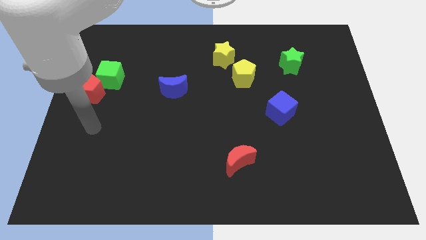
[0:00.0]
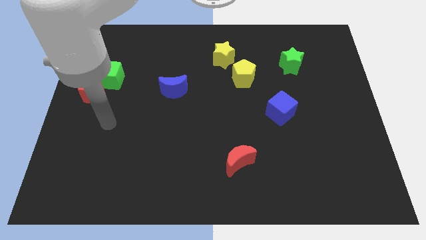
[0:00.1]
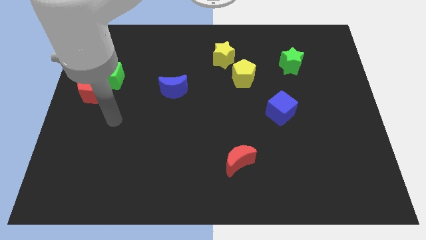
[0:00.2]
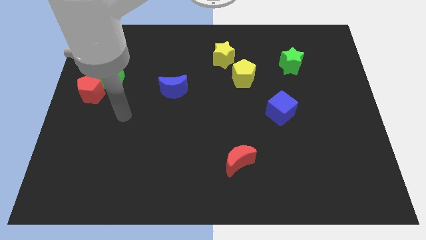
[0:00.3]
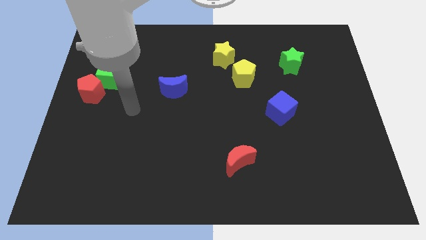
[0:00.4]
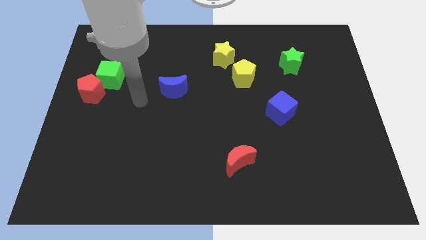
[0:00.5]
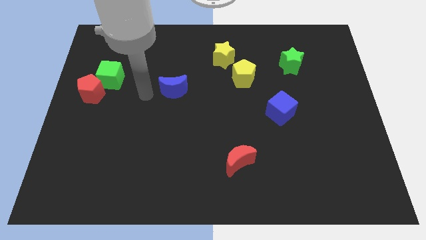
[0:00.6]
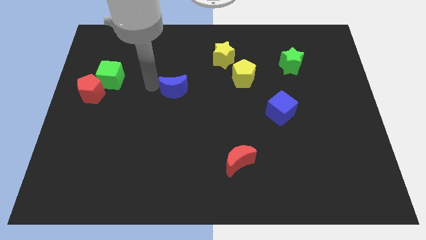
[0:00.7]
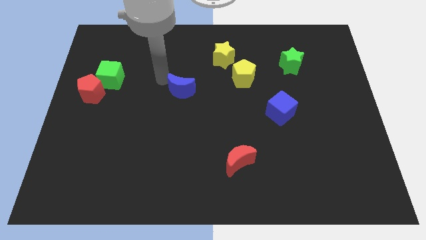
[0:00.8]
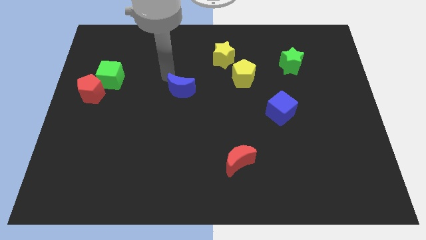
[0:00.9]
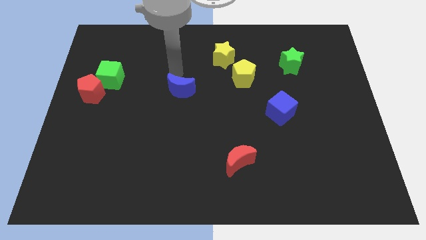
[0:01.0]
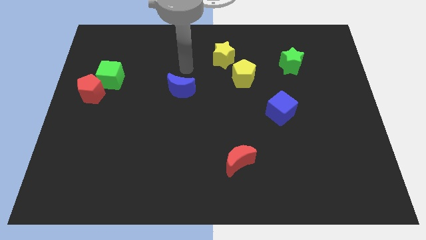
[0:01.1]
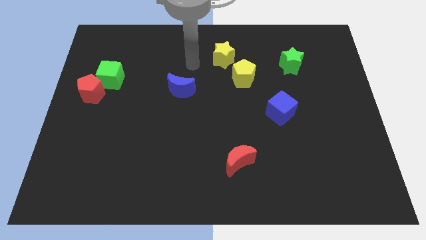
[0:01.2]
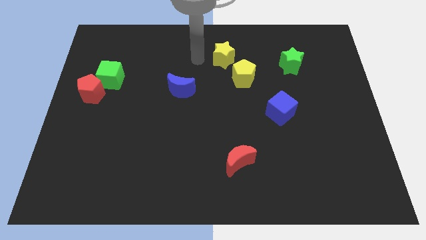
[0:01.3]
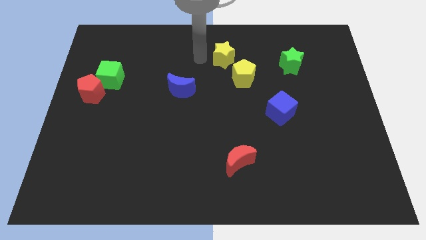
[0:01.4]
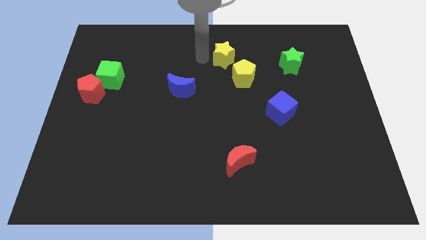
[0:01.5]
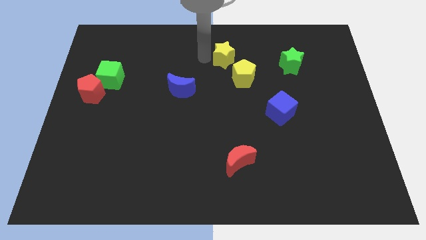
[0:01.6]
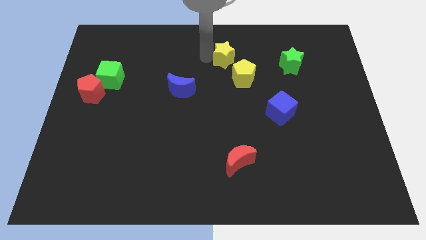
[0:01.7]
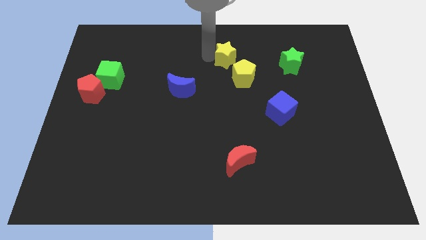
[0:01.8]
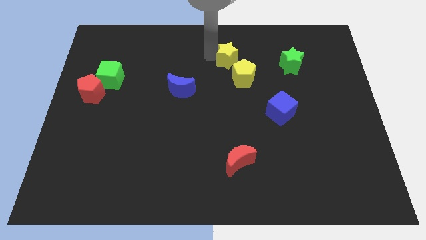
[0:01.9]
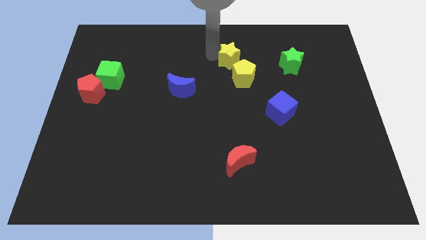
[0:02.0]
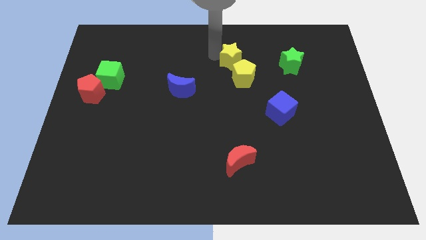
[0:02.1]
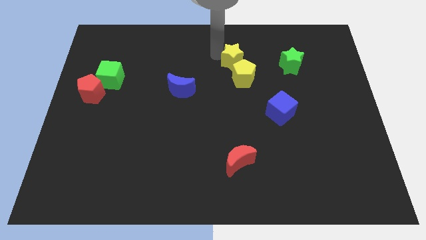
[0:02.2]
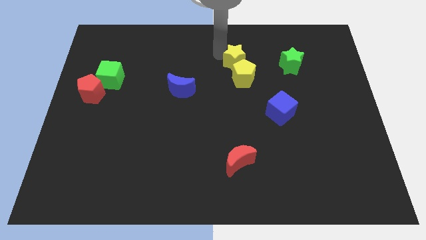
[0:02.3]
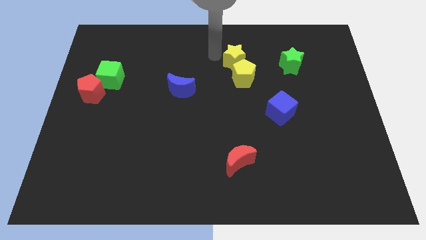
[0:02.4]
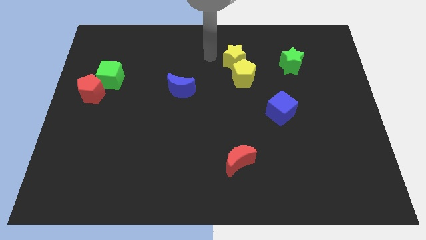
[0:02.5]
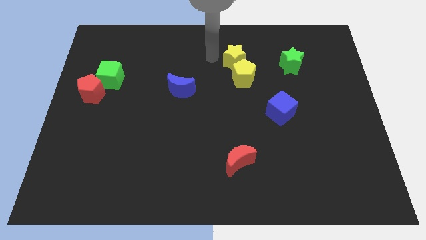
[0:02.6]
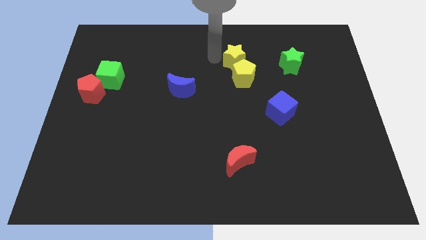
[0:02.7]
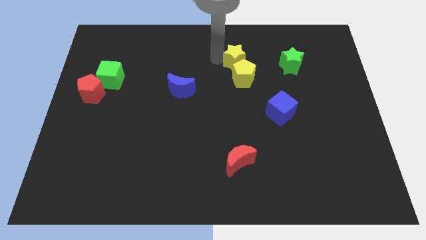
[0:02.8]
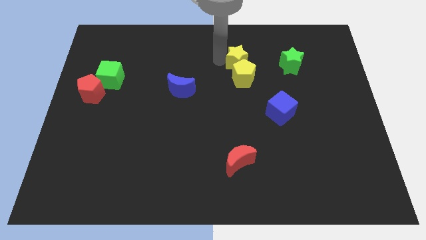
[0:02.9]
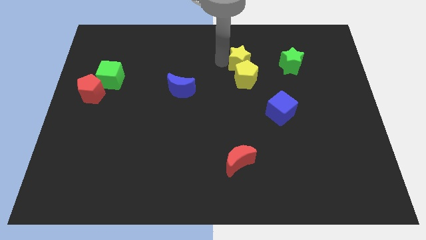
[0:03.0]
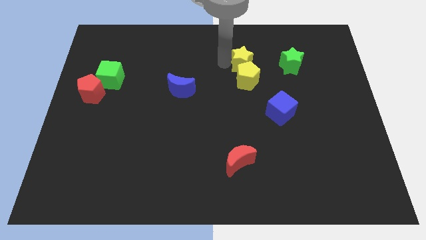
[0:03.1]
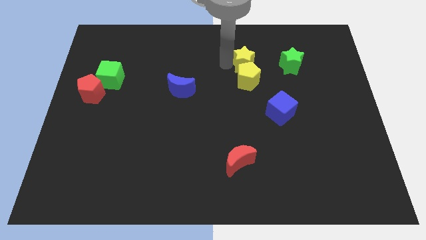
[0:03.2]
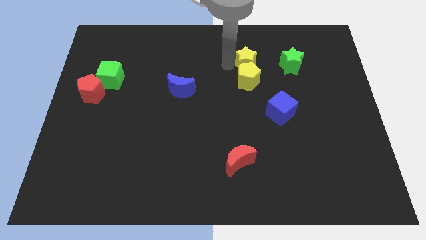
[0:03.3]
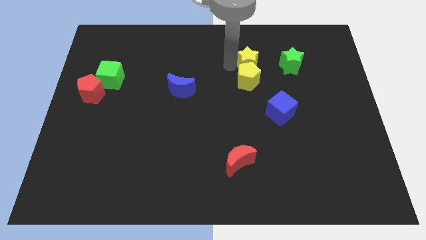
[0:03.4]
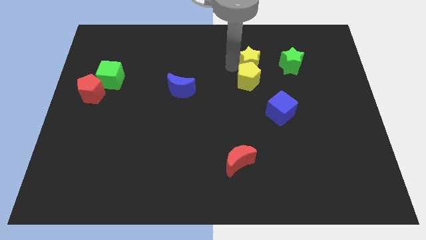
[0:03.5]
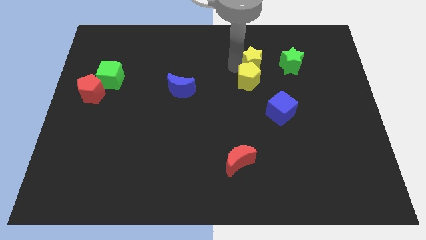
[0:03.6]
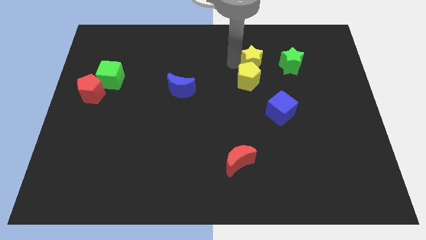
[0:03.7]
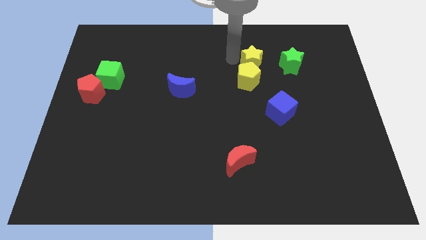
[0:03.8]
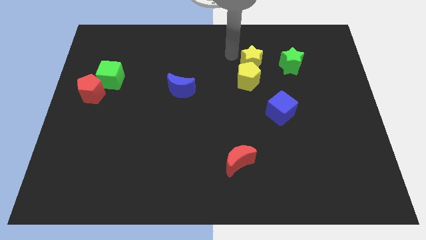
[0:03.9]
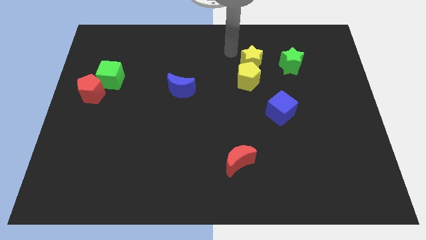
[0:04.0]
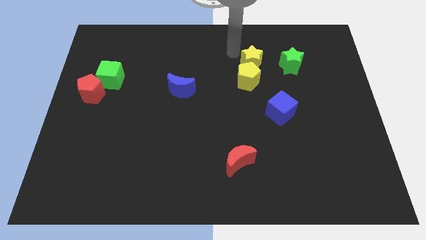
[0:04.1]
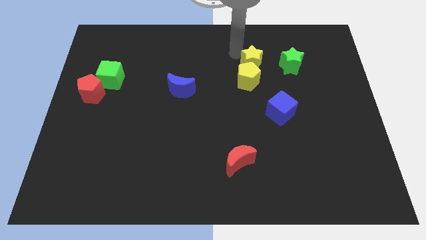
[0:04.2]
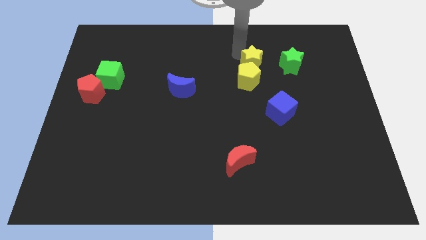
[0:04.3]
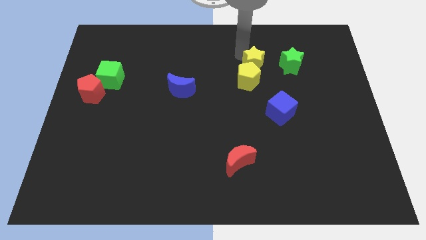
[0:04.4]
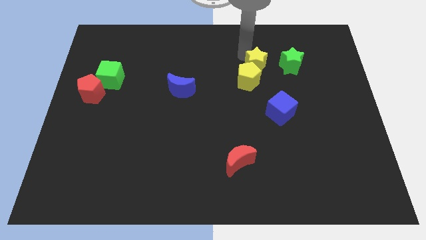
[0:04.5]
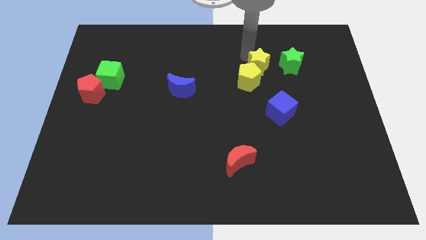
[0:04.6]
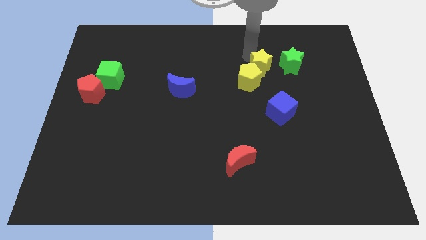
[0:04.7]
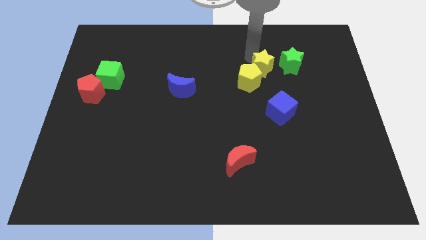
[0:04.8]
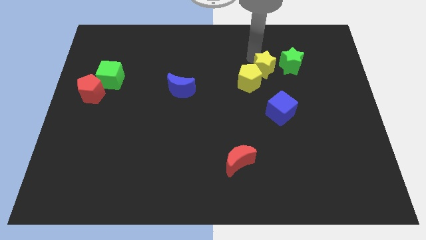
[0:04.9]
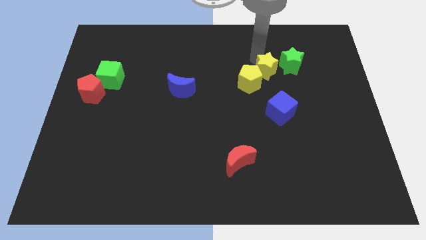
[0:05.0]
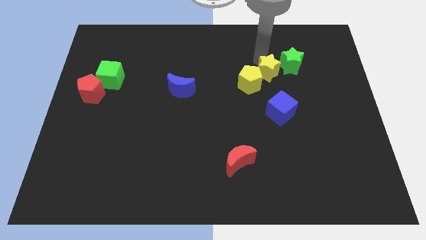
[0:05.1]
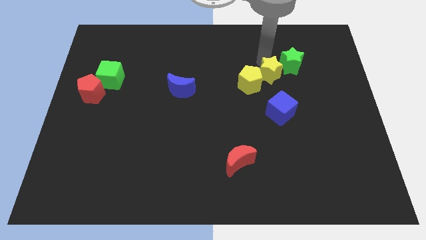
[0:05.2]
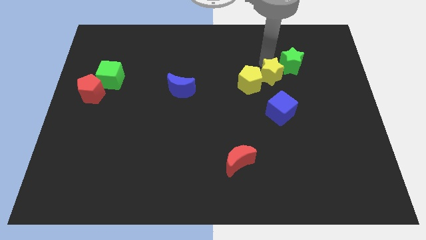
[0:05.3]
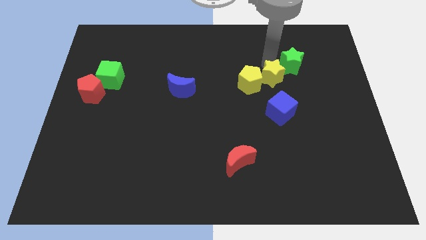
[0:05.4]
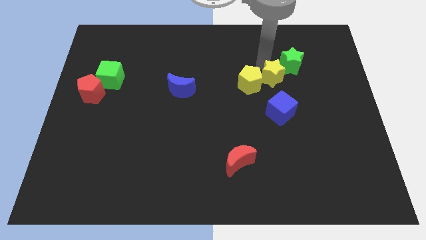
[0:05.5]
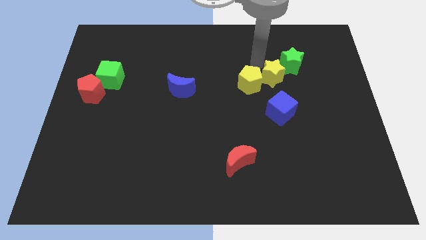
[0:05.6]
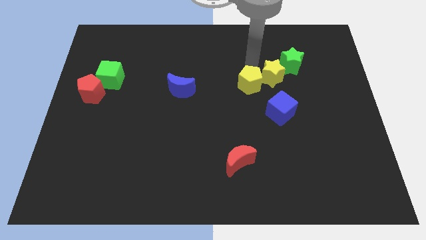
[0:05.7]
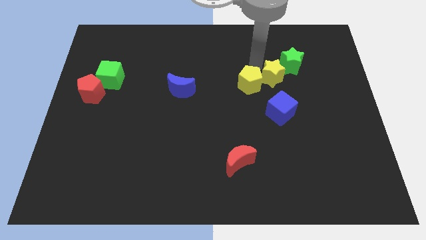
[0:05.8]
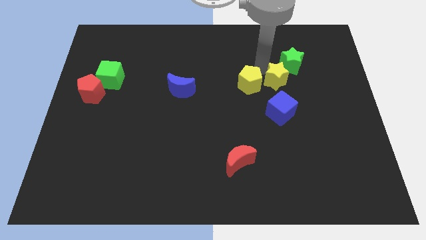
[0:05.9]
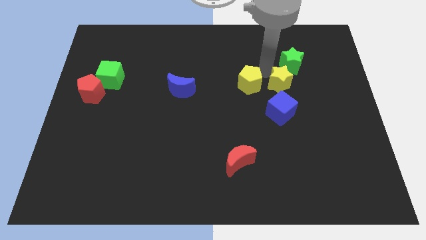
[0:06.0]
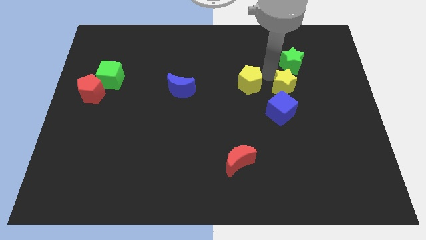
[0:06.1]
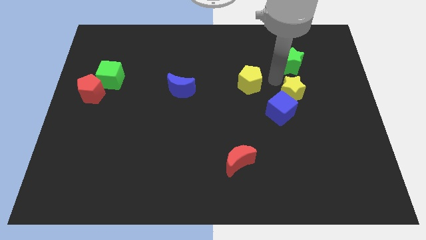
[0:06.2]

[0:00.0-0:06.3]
move the yellow star down and to the right

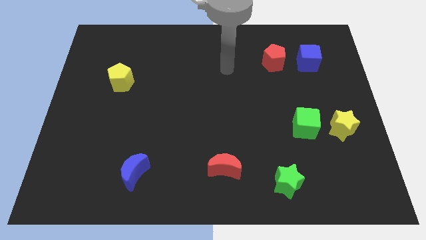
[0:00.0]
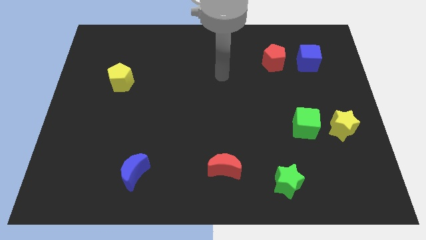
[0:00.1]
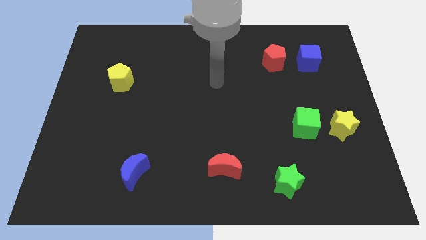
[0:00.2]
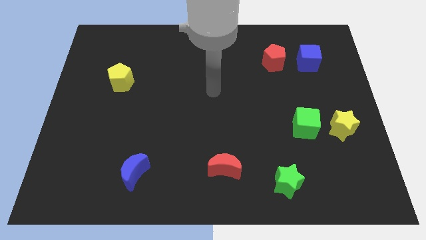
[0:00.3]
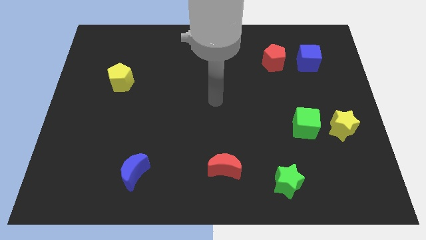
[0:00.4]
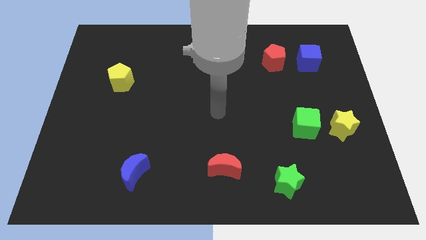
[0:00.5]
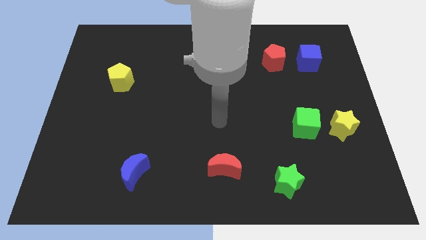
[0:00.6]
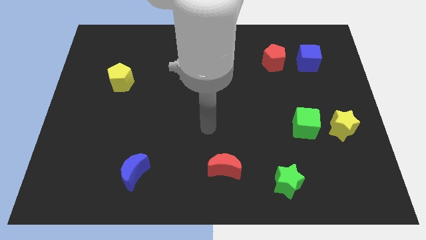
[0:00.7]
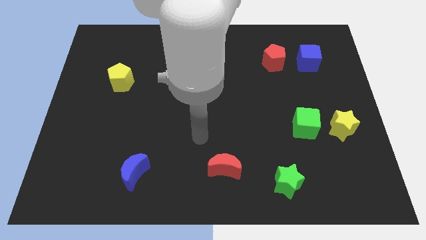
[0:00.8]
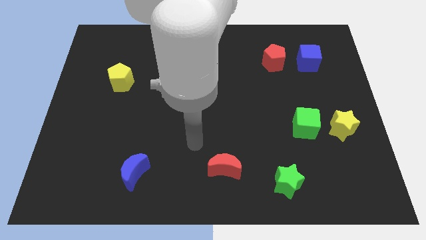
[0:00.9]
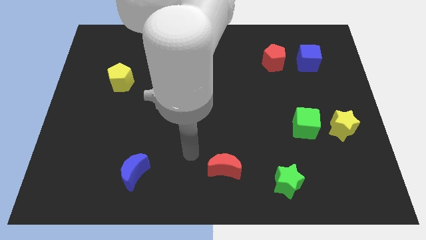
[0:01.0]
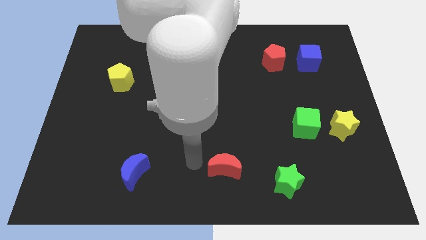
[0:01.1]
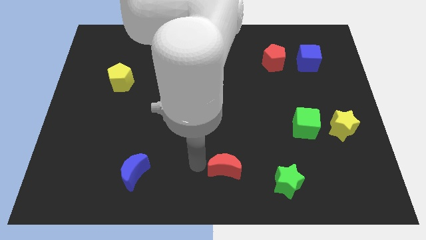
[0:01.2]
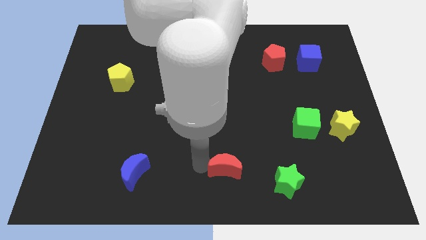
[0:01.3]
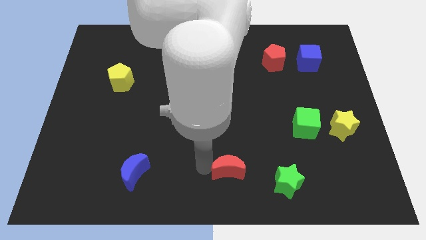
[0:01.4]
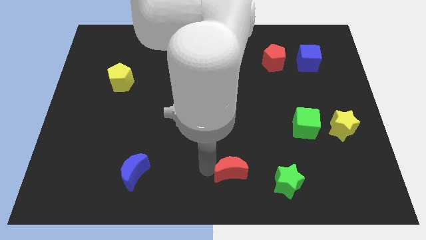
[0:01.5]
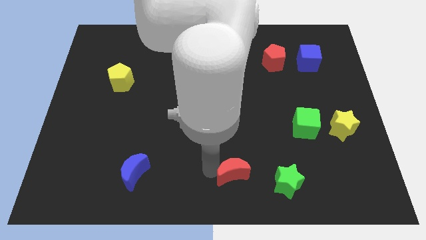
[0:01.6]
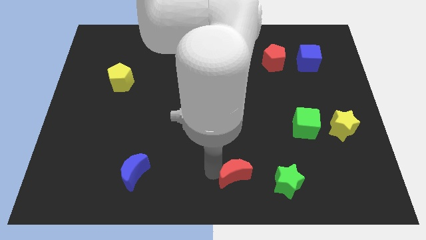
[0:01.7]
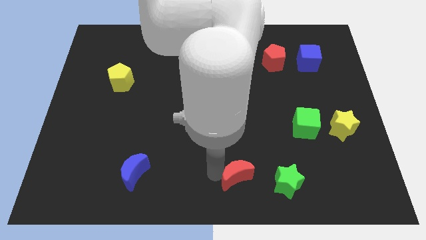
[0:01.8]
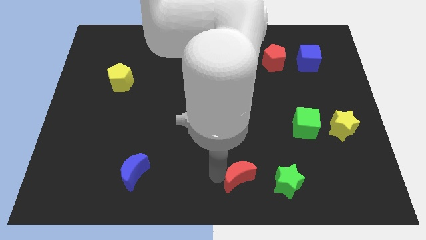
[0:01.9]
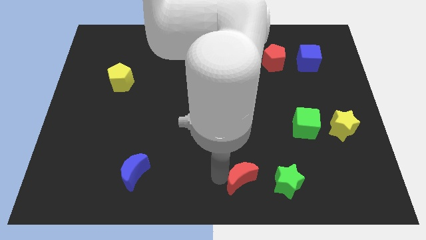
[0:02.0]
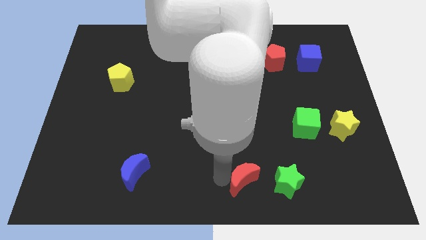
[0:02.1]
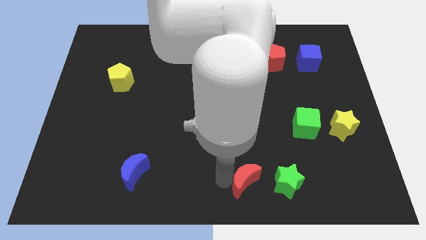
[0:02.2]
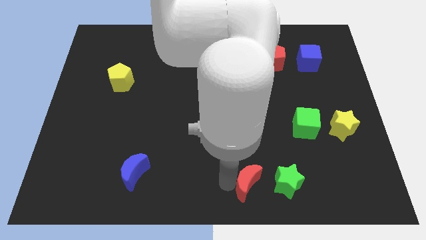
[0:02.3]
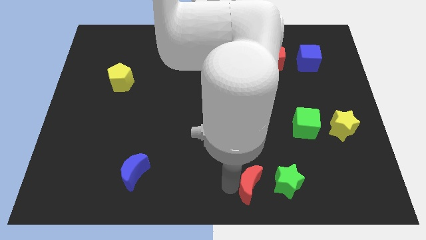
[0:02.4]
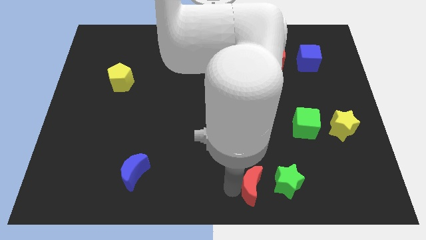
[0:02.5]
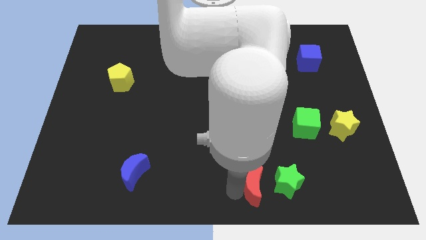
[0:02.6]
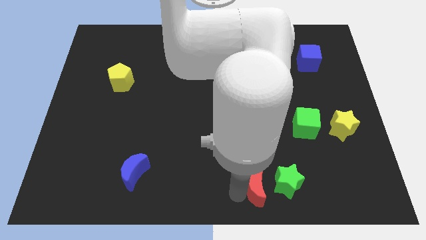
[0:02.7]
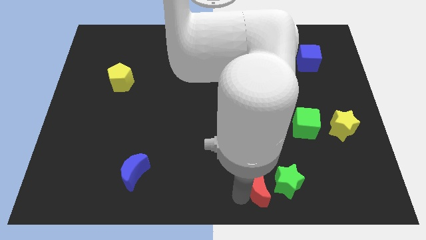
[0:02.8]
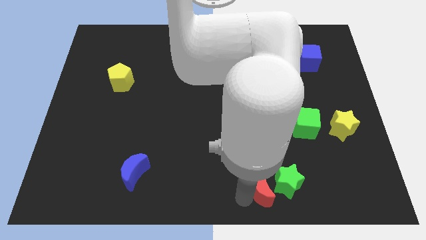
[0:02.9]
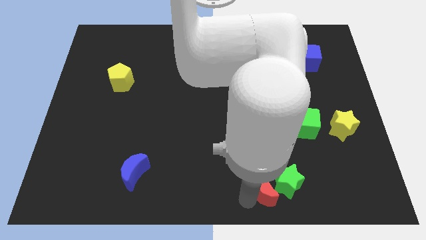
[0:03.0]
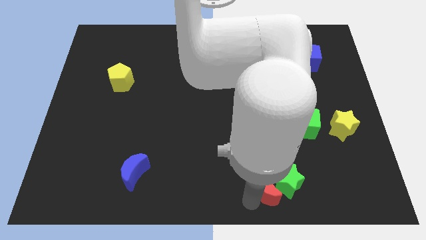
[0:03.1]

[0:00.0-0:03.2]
slightly slide the red moon to the right
